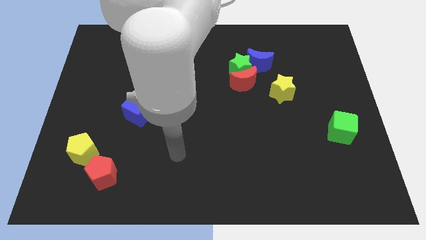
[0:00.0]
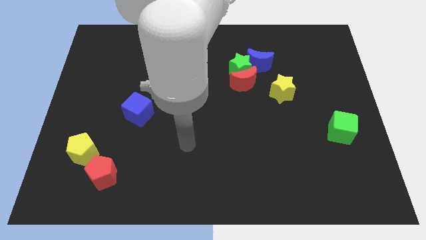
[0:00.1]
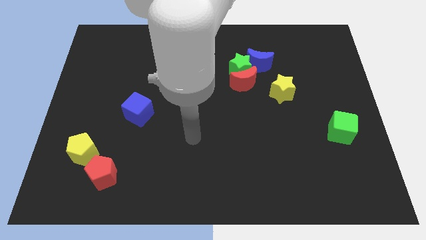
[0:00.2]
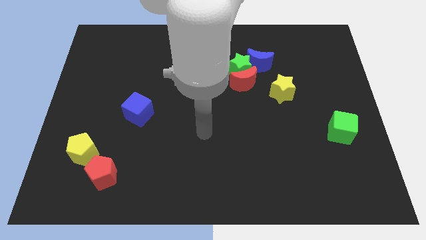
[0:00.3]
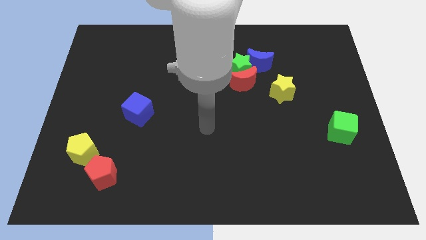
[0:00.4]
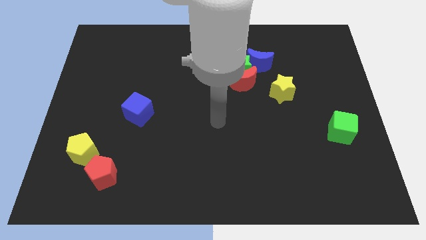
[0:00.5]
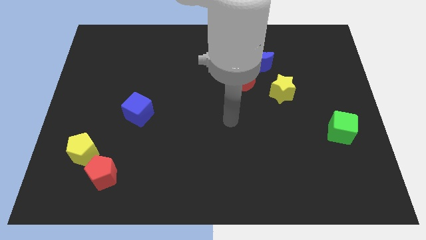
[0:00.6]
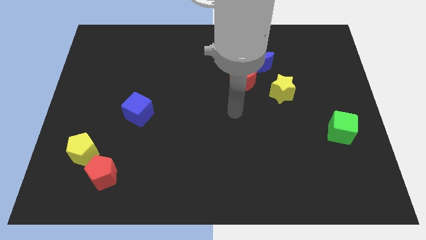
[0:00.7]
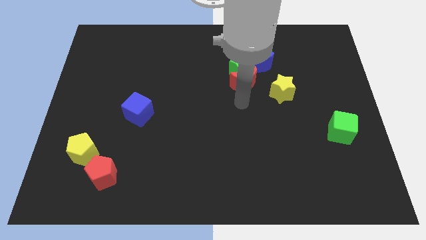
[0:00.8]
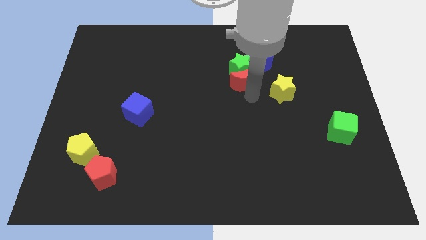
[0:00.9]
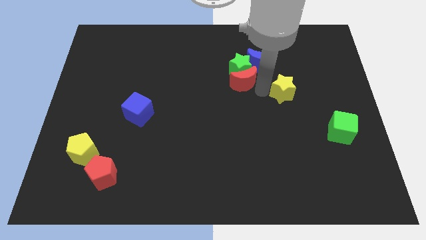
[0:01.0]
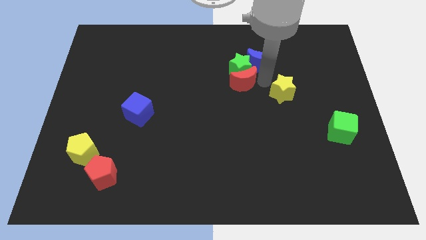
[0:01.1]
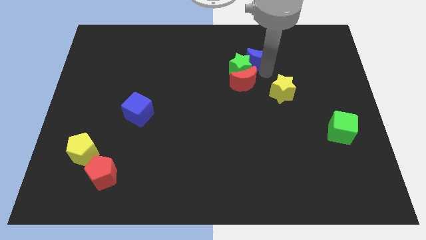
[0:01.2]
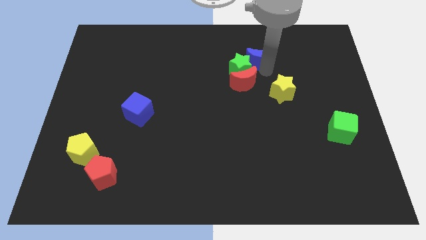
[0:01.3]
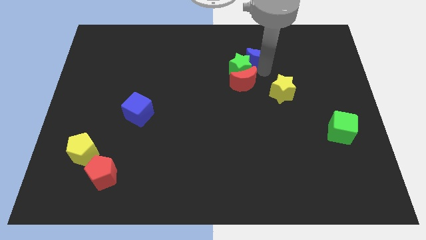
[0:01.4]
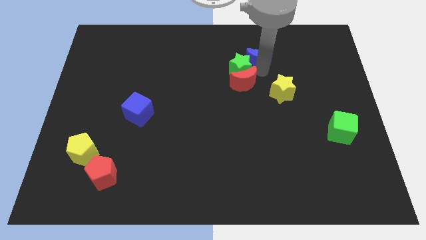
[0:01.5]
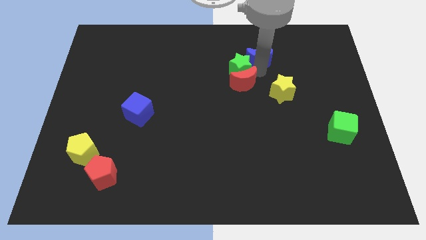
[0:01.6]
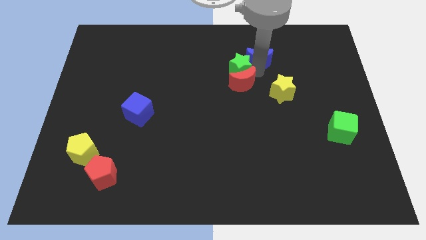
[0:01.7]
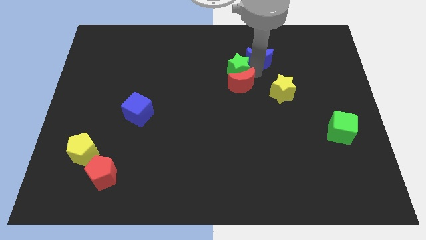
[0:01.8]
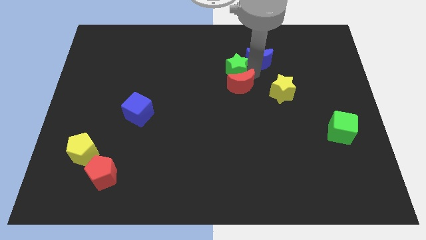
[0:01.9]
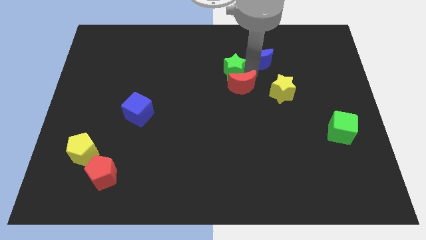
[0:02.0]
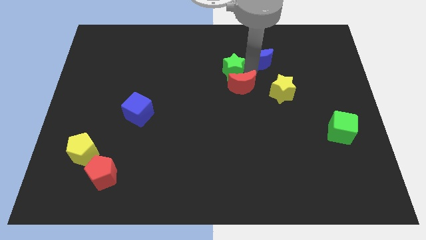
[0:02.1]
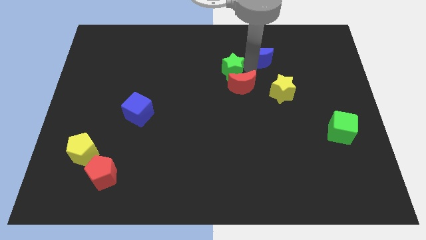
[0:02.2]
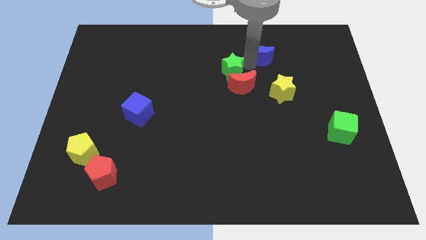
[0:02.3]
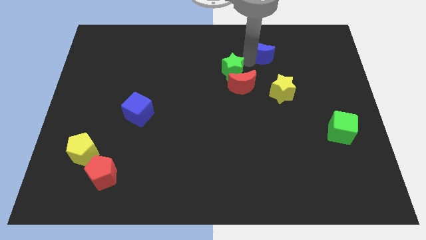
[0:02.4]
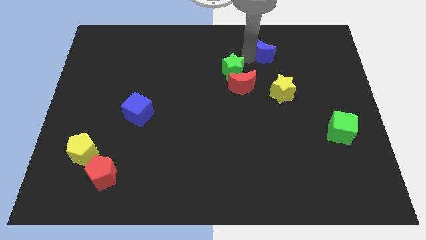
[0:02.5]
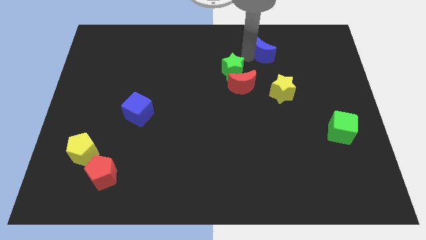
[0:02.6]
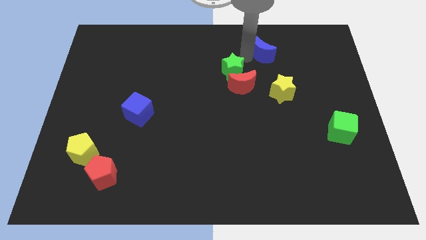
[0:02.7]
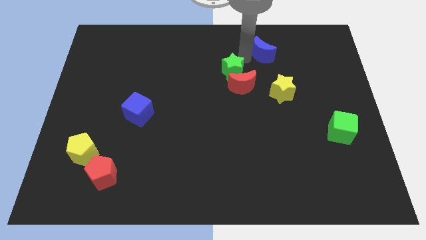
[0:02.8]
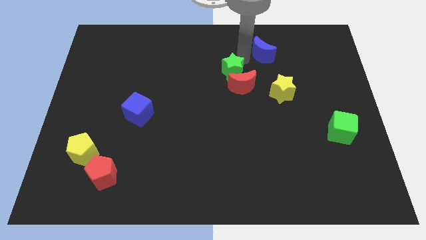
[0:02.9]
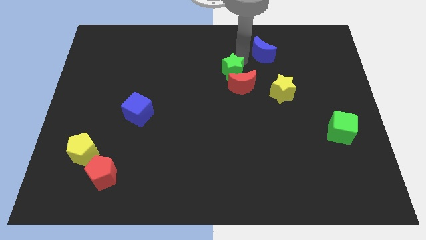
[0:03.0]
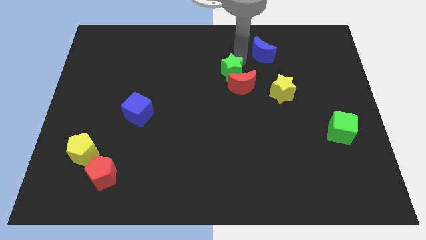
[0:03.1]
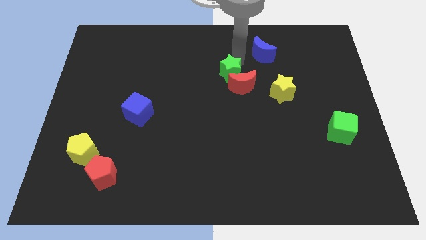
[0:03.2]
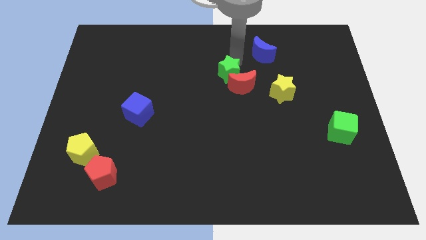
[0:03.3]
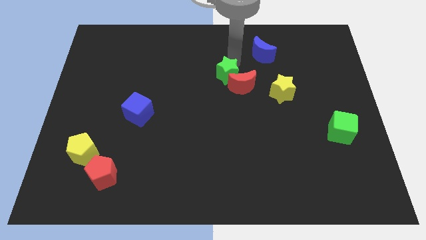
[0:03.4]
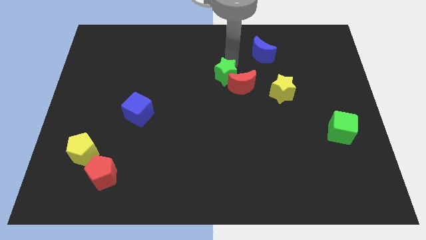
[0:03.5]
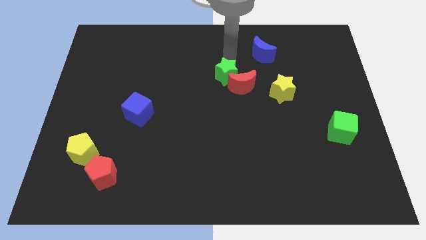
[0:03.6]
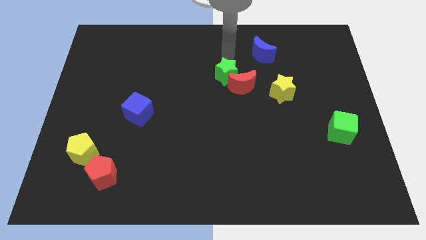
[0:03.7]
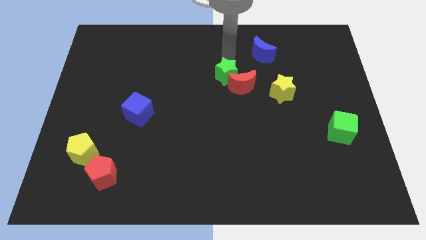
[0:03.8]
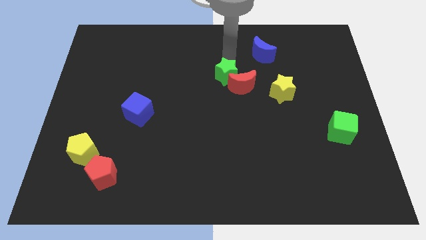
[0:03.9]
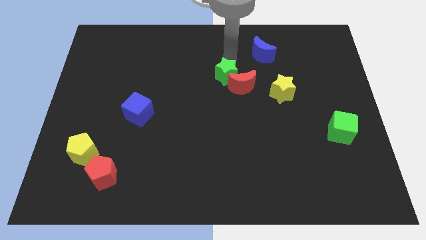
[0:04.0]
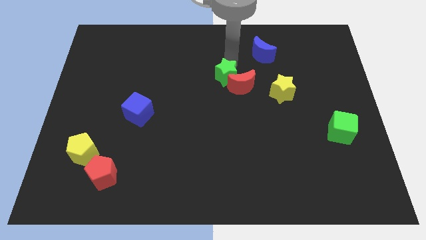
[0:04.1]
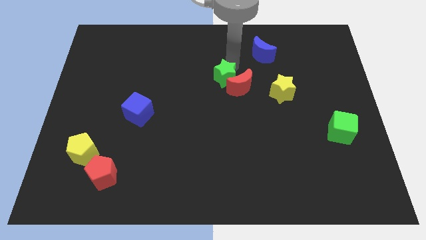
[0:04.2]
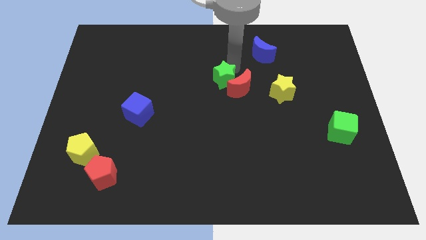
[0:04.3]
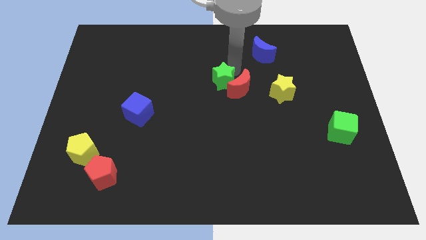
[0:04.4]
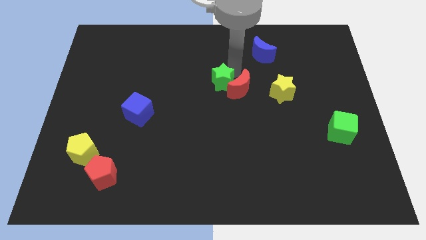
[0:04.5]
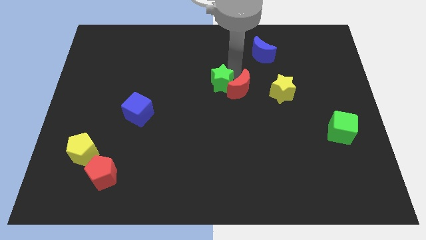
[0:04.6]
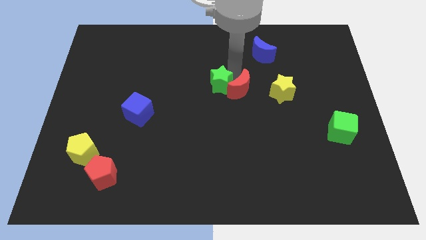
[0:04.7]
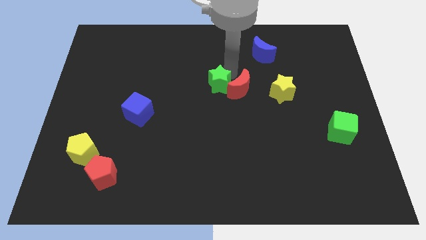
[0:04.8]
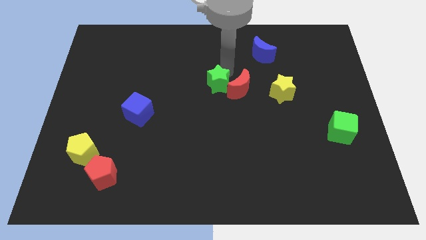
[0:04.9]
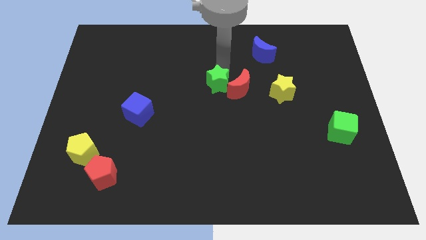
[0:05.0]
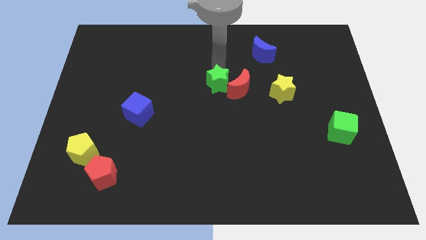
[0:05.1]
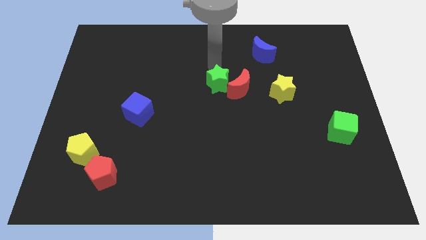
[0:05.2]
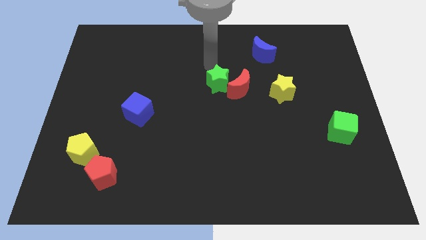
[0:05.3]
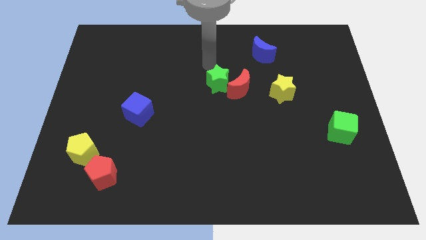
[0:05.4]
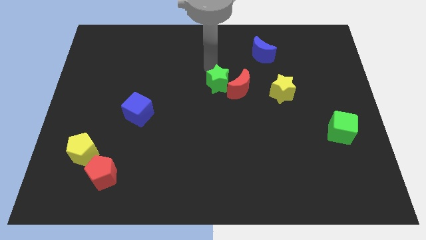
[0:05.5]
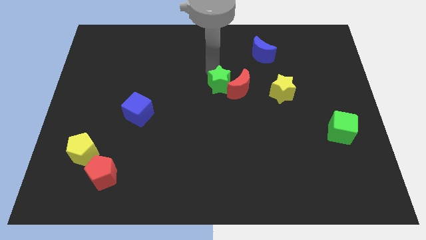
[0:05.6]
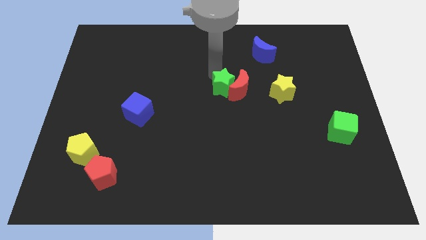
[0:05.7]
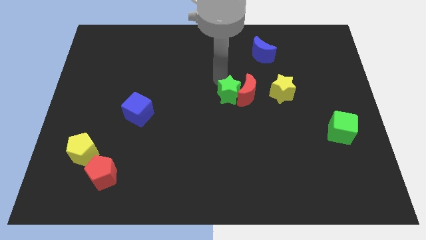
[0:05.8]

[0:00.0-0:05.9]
slightly push the green star downwards

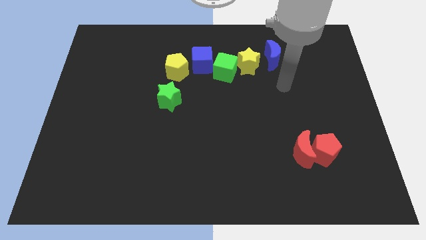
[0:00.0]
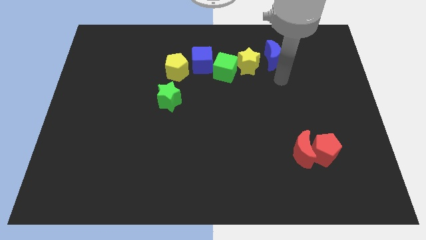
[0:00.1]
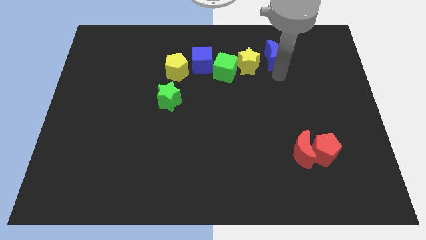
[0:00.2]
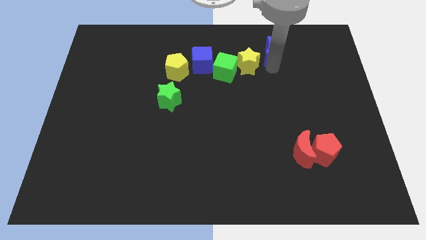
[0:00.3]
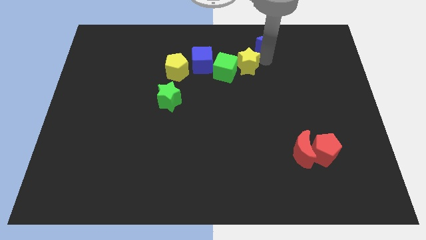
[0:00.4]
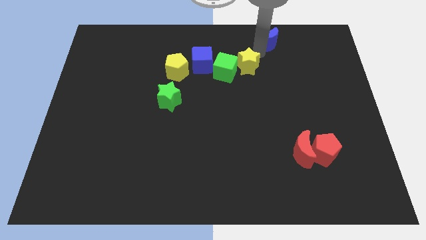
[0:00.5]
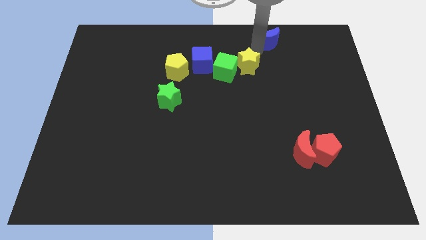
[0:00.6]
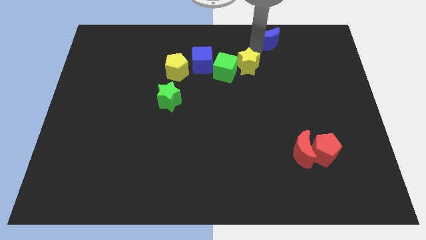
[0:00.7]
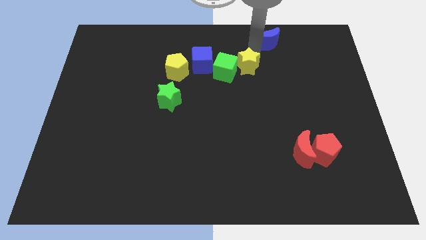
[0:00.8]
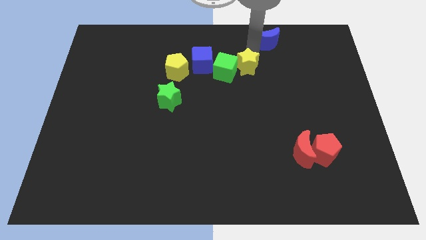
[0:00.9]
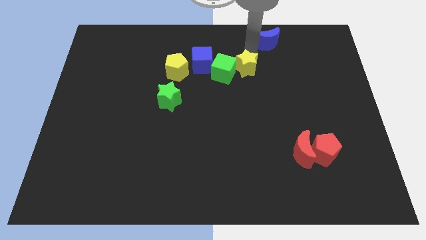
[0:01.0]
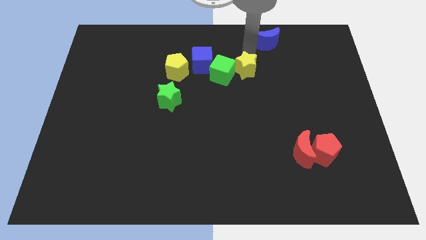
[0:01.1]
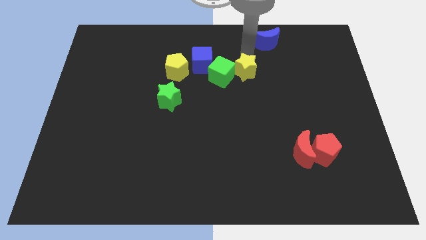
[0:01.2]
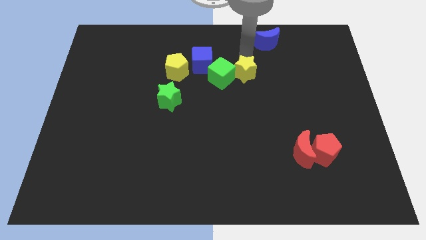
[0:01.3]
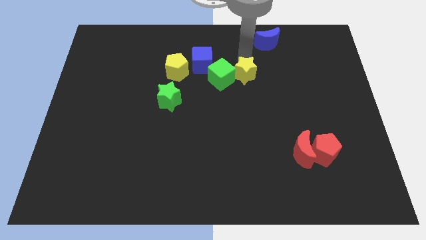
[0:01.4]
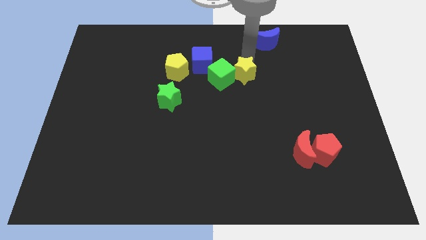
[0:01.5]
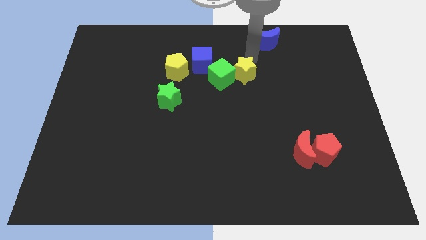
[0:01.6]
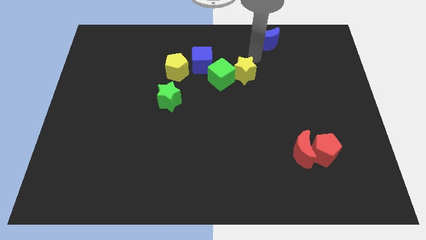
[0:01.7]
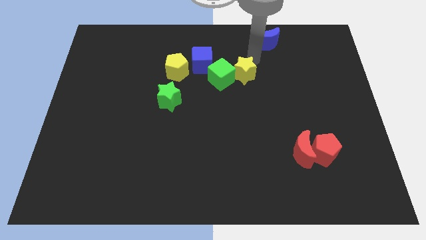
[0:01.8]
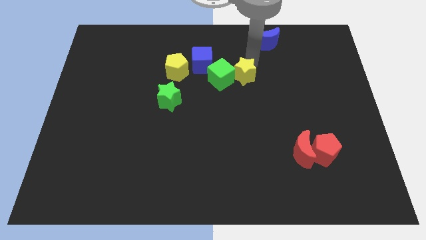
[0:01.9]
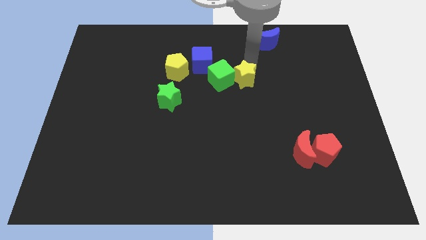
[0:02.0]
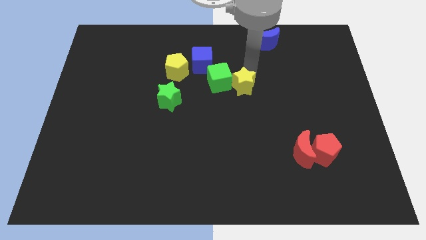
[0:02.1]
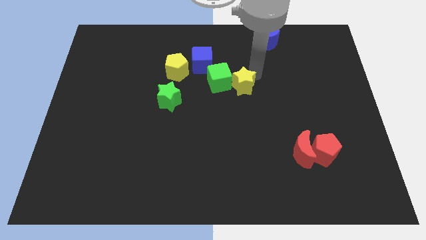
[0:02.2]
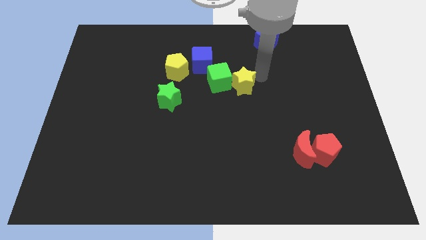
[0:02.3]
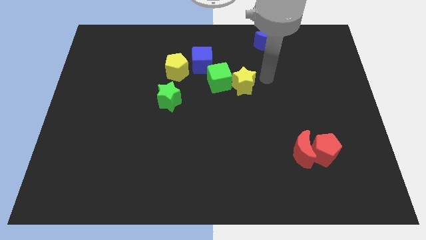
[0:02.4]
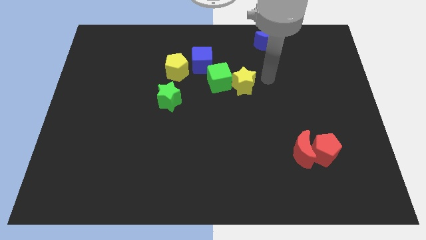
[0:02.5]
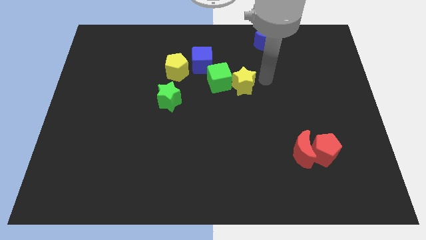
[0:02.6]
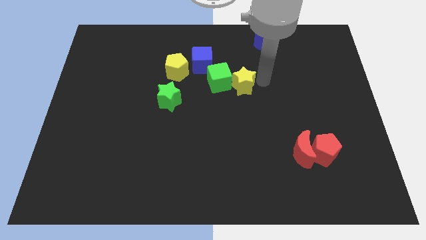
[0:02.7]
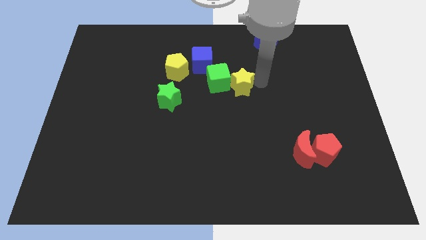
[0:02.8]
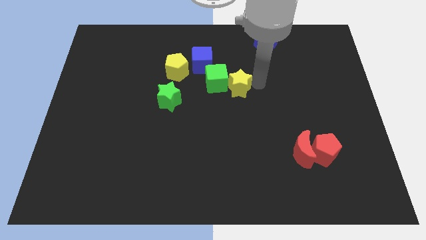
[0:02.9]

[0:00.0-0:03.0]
slide the yellow star diagonally downwards and to the left a little
